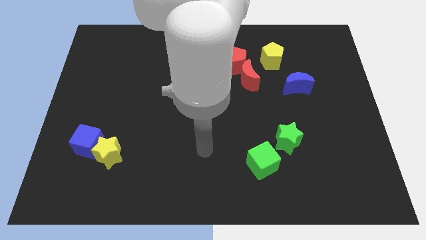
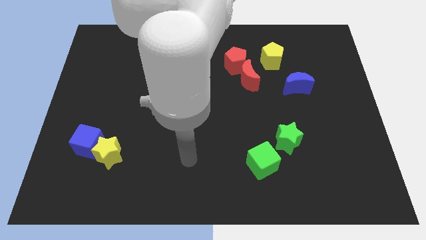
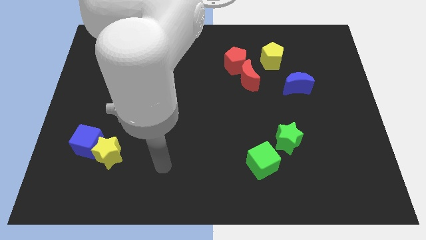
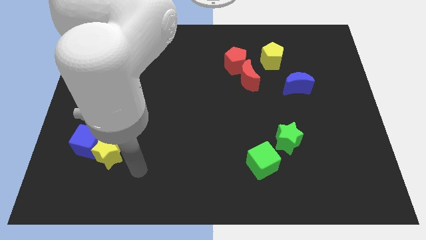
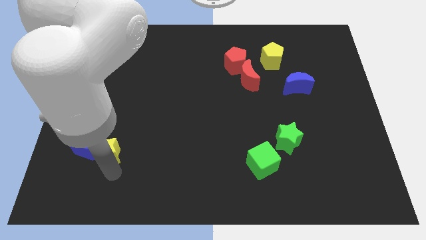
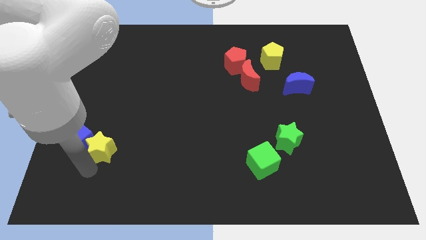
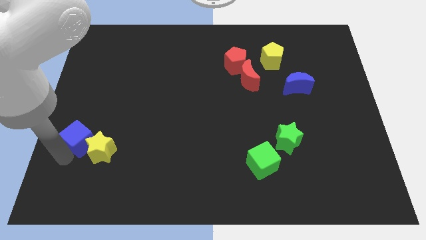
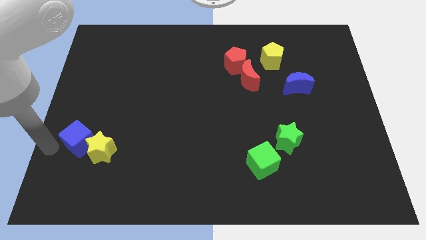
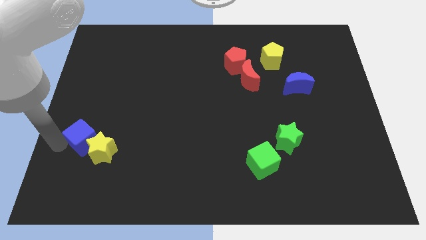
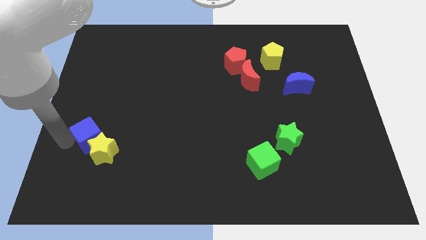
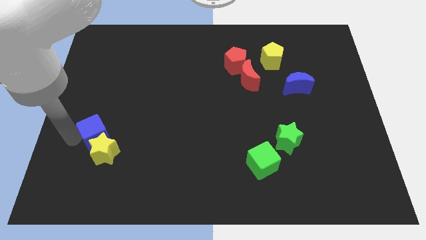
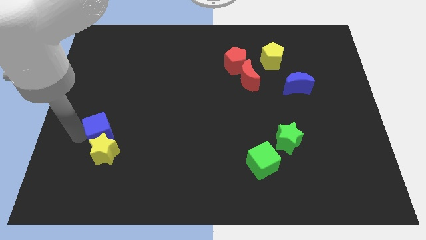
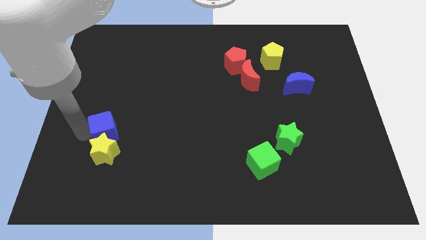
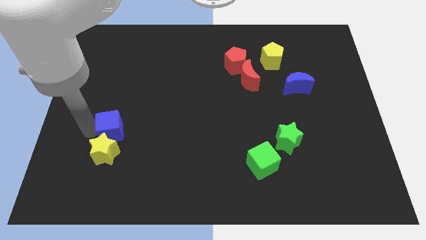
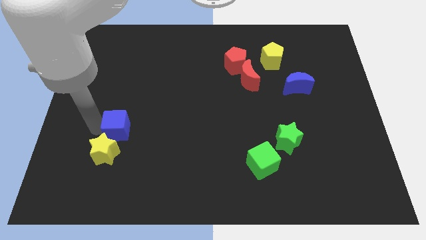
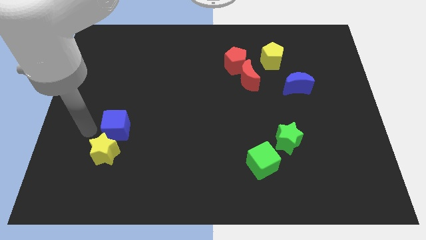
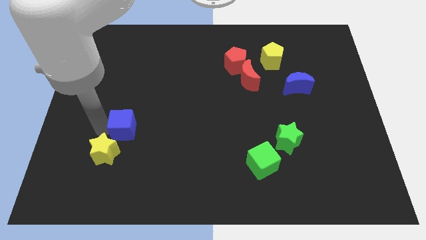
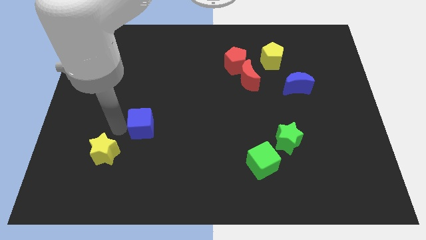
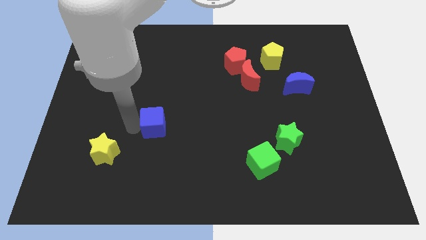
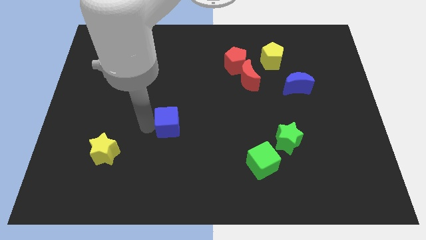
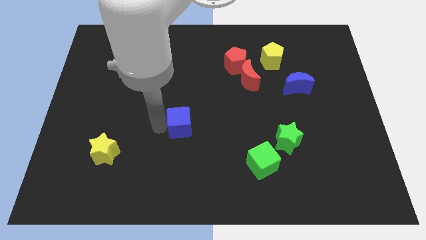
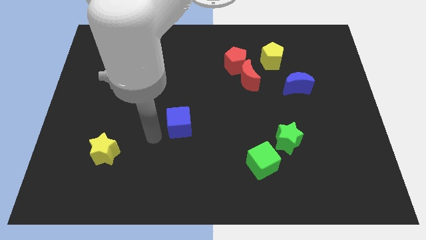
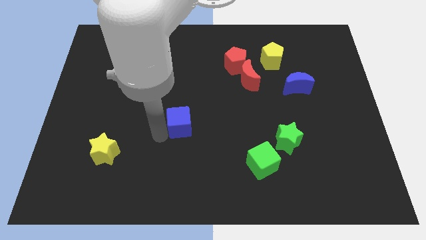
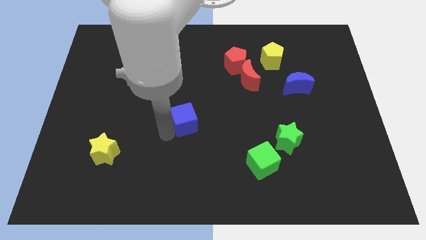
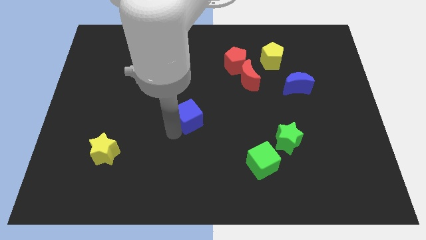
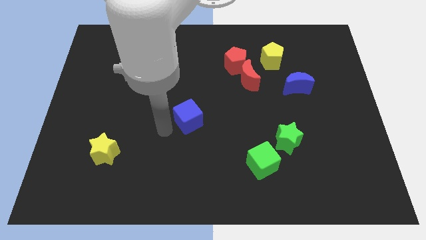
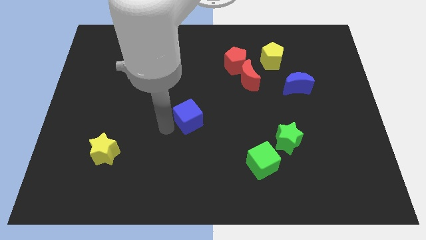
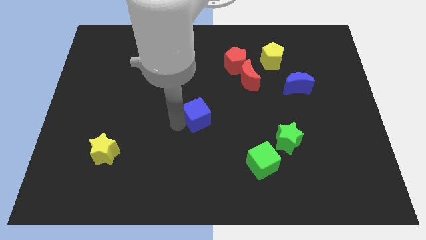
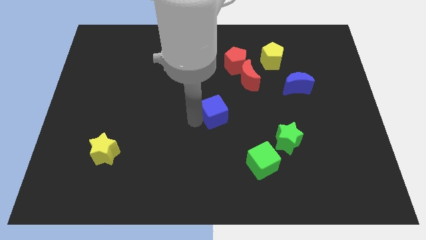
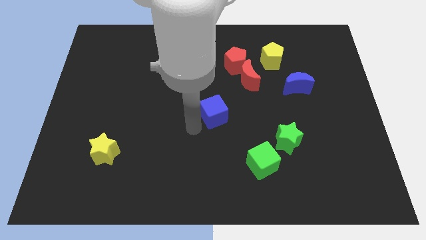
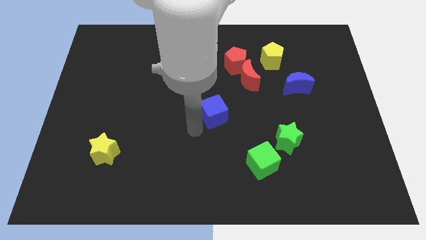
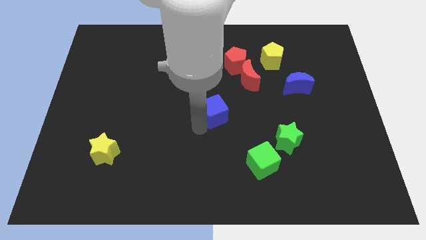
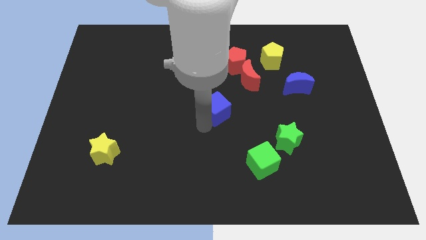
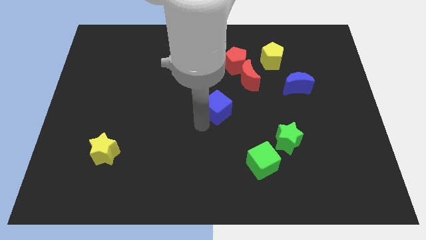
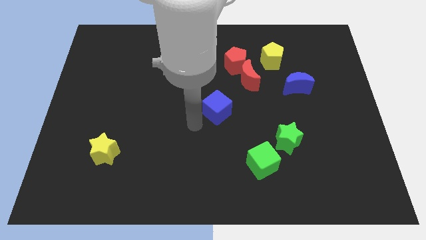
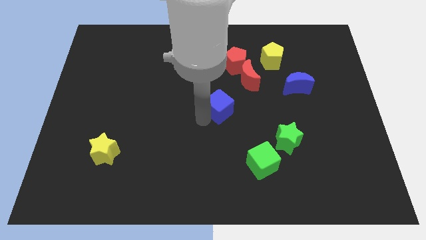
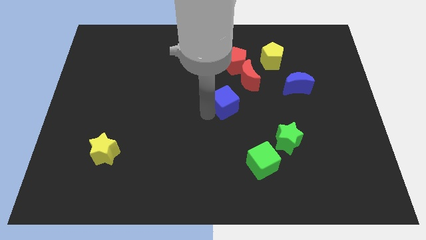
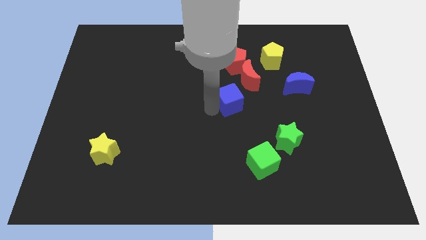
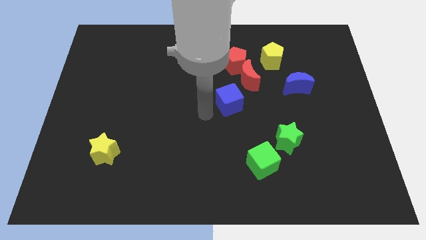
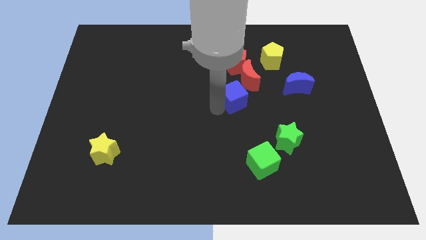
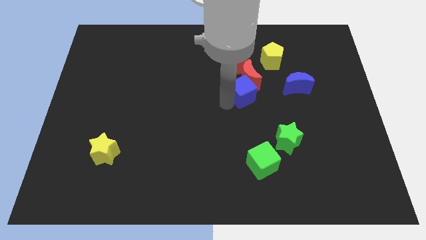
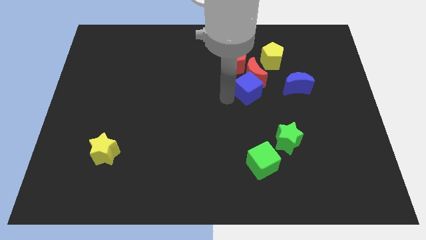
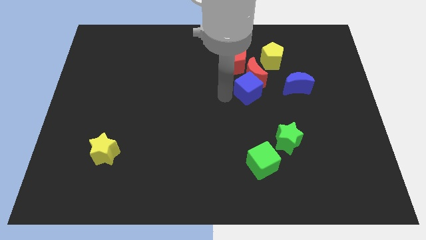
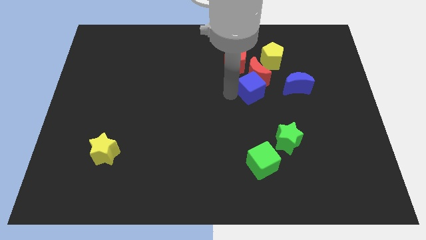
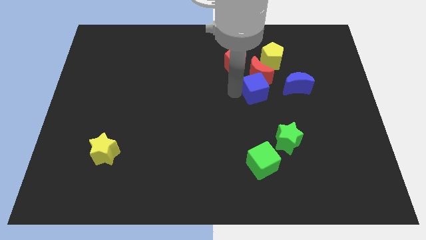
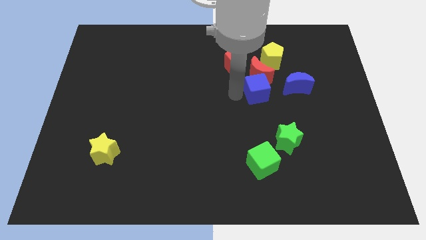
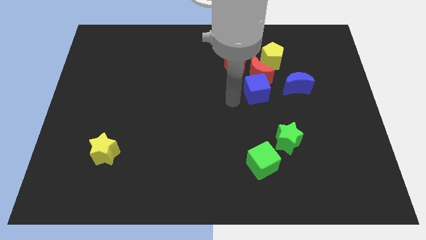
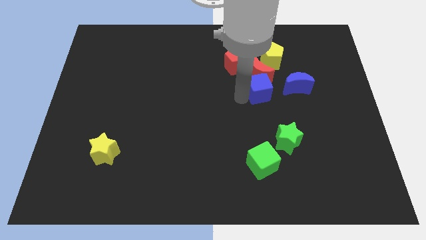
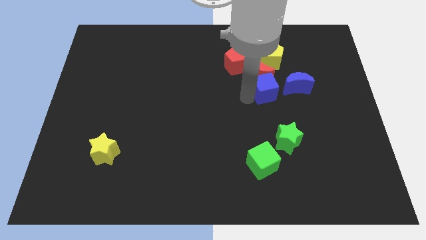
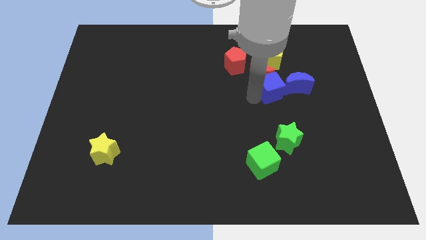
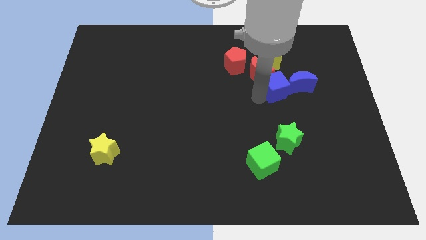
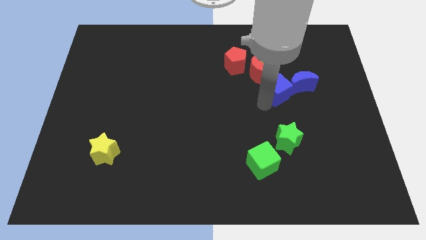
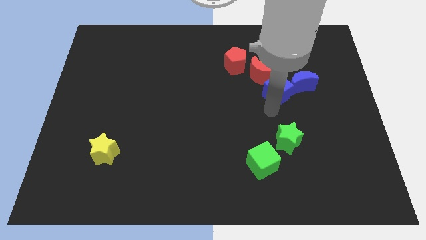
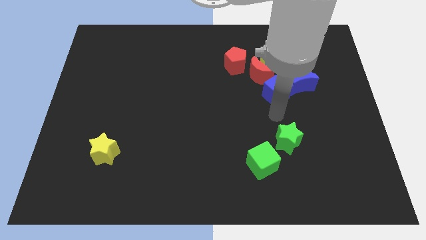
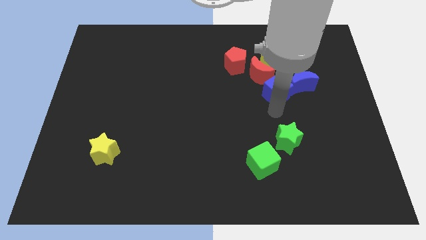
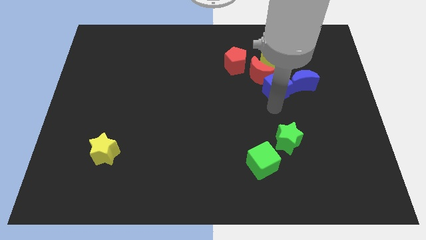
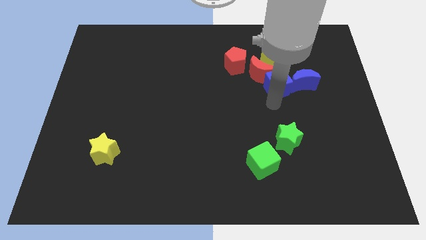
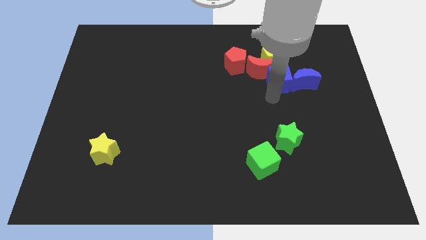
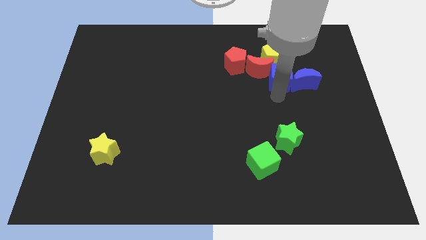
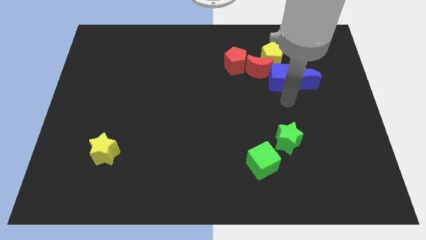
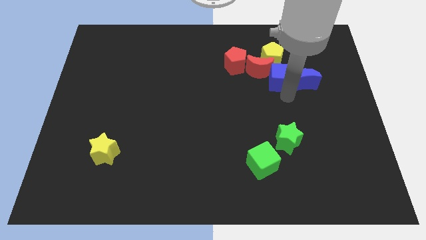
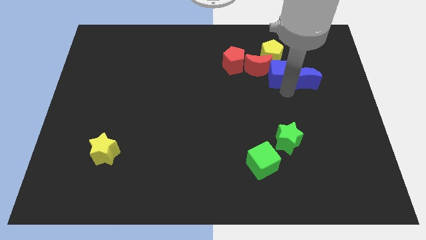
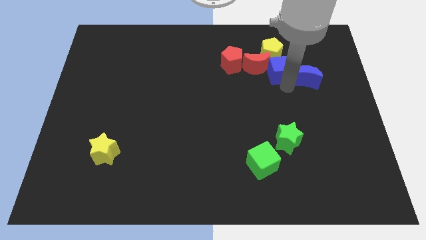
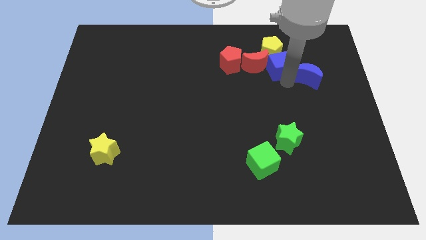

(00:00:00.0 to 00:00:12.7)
put the blue cube close to the yellow pentagon

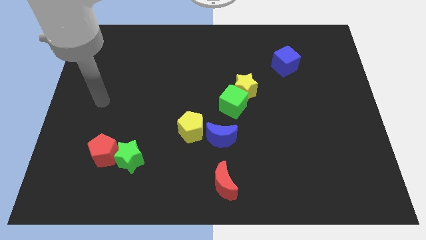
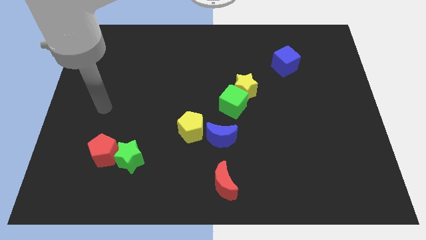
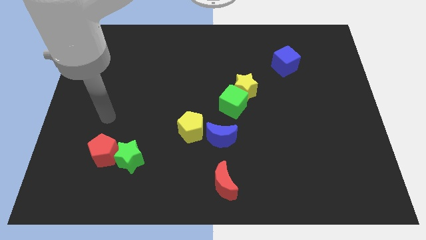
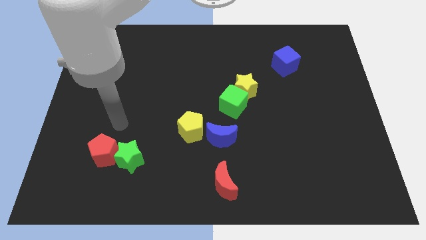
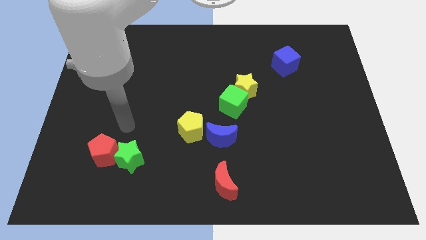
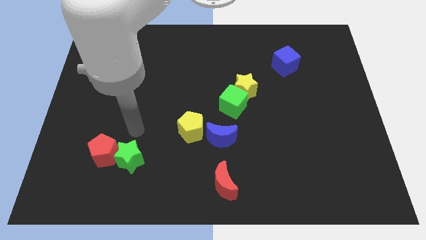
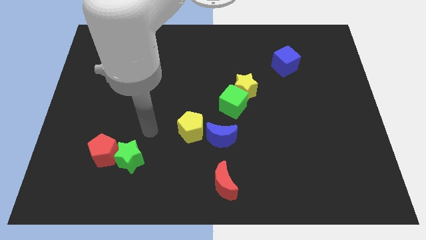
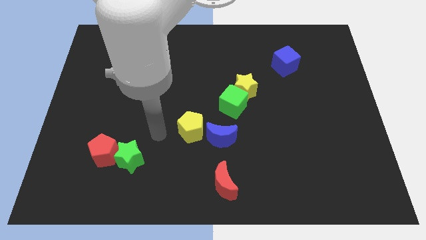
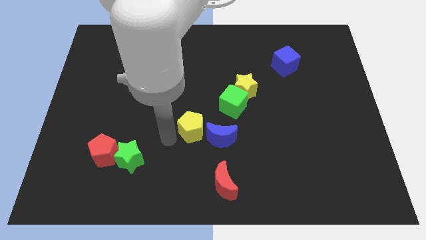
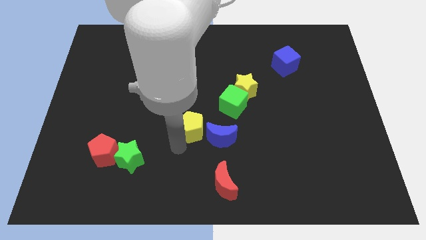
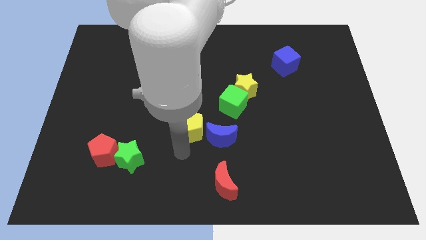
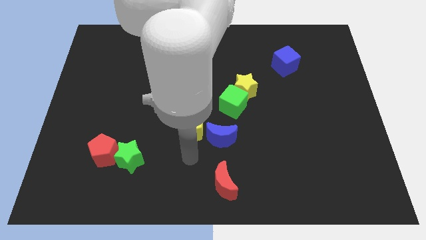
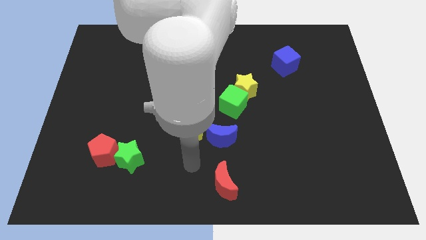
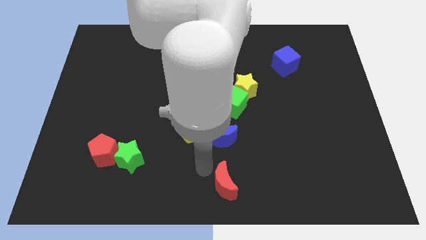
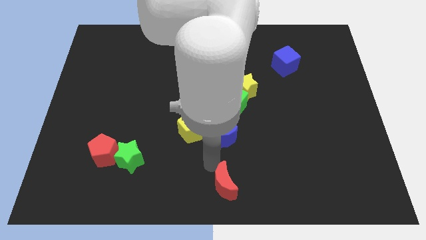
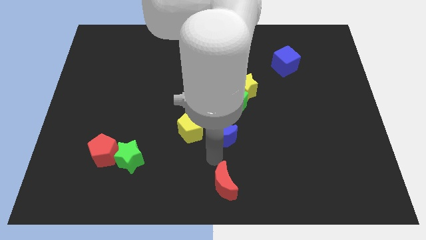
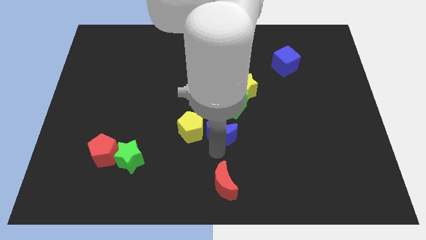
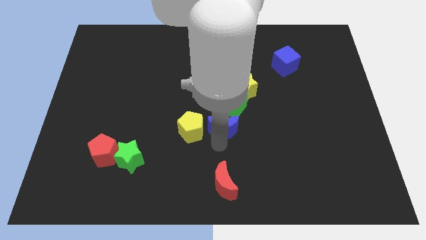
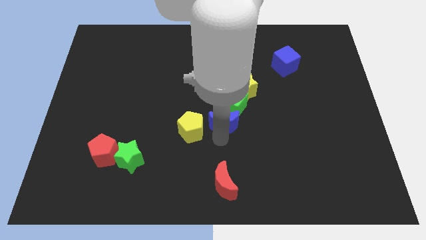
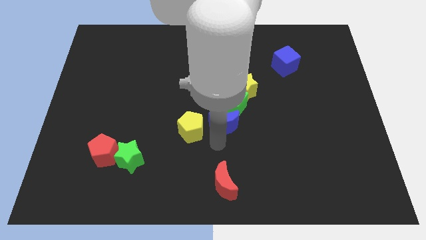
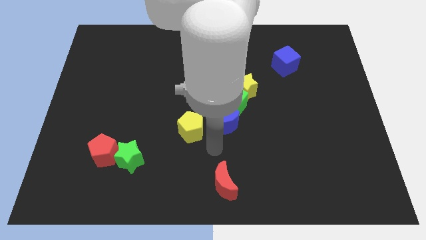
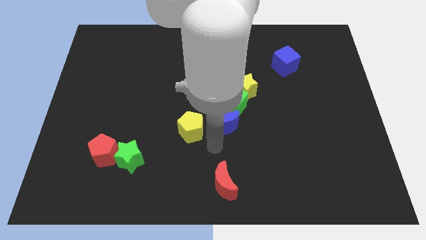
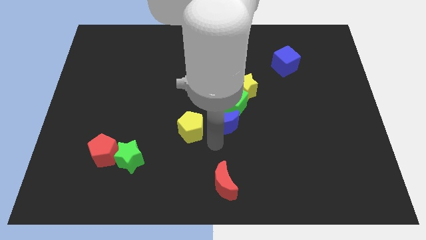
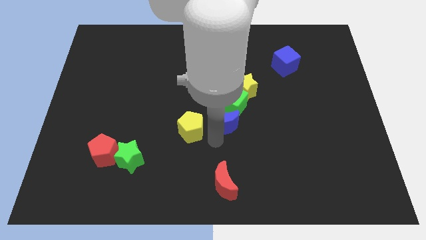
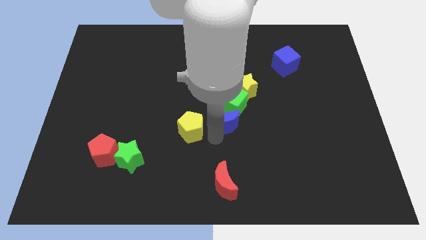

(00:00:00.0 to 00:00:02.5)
slide the blue moon towards the green cube
